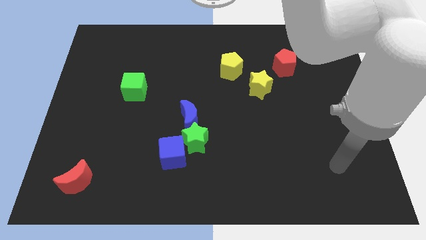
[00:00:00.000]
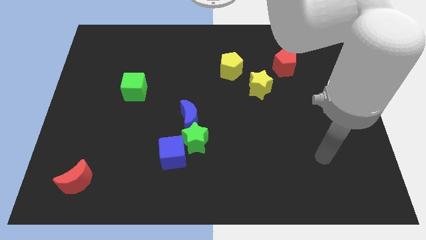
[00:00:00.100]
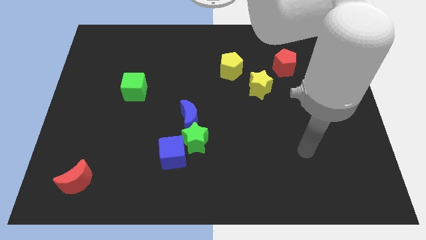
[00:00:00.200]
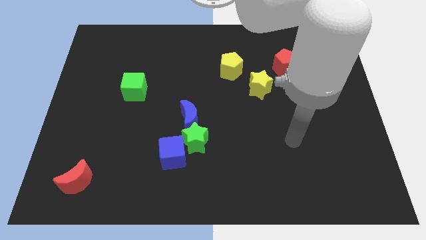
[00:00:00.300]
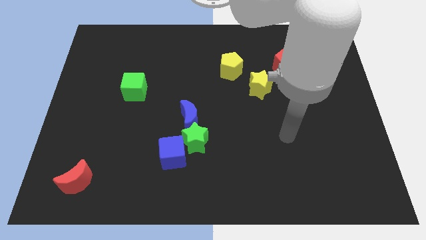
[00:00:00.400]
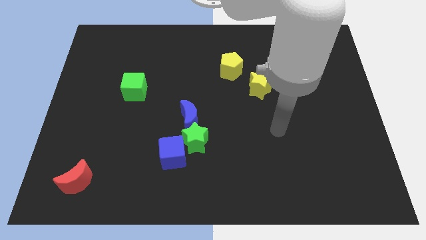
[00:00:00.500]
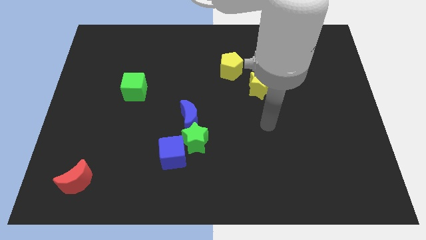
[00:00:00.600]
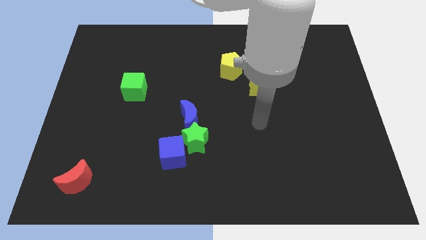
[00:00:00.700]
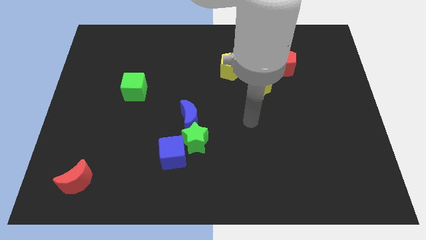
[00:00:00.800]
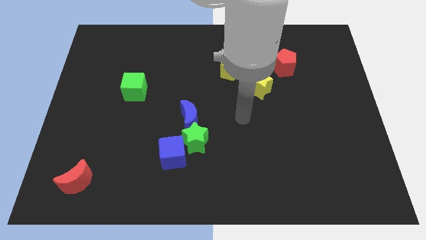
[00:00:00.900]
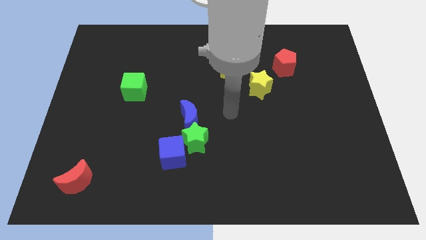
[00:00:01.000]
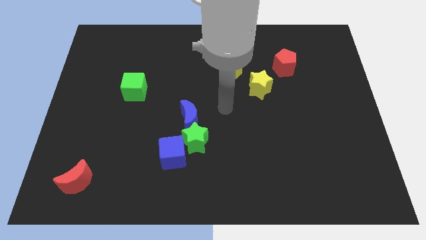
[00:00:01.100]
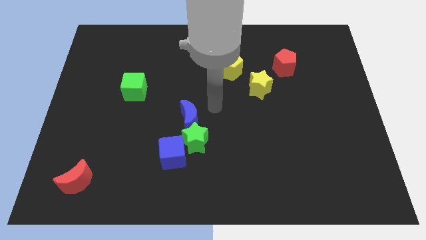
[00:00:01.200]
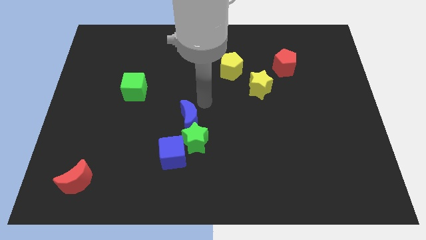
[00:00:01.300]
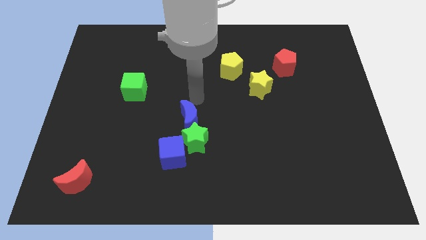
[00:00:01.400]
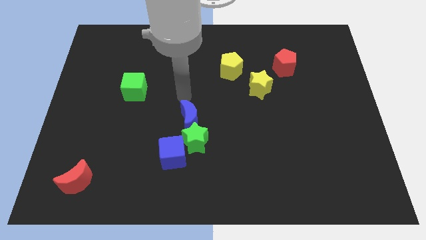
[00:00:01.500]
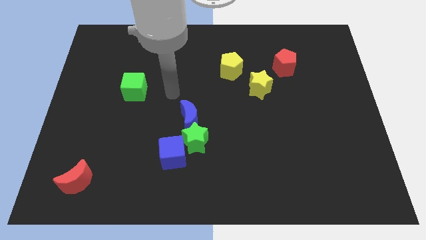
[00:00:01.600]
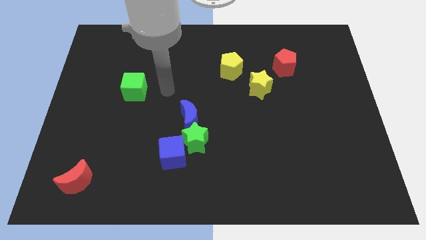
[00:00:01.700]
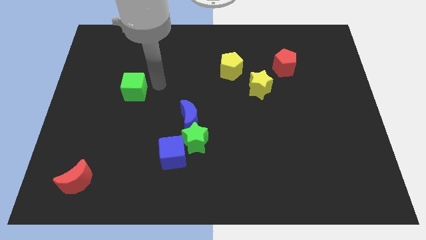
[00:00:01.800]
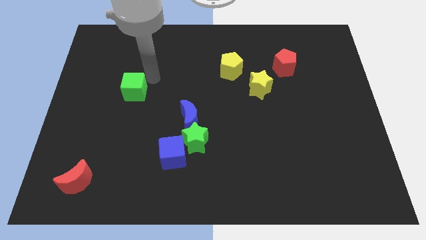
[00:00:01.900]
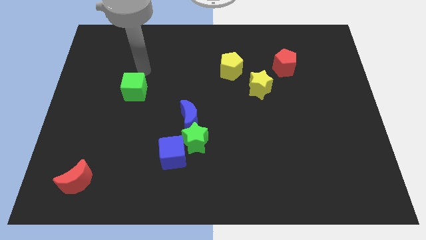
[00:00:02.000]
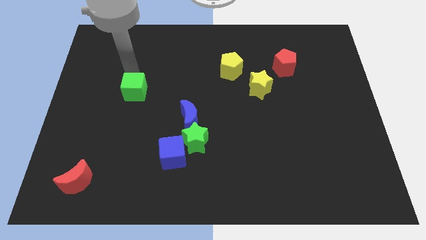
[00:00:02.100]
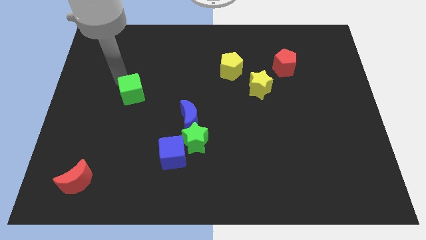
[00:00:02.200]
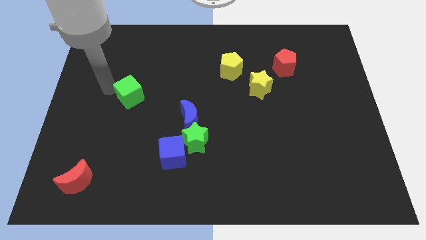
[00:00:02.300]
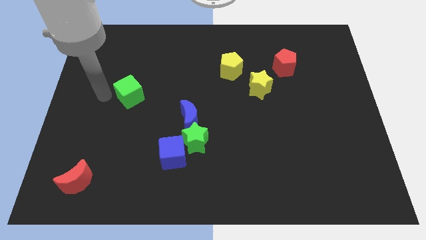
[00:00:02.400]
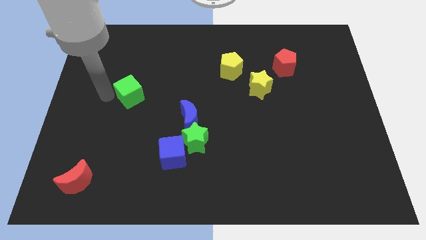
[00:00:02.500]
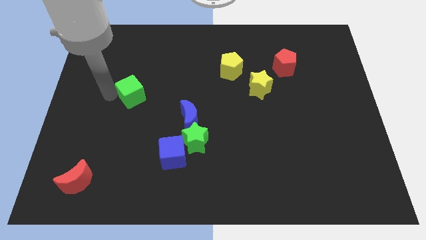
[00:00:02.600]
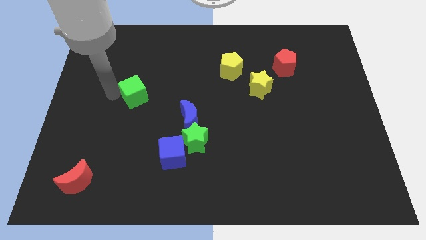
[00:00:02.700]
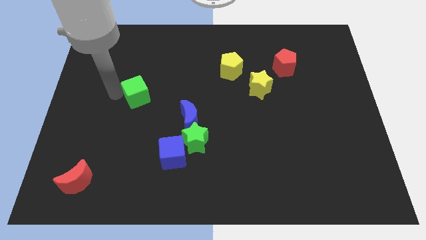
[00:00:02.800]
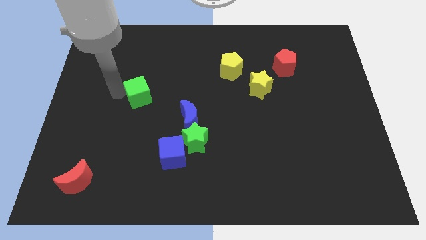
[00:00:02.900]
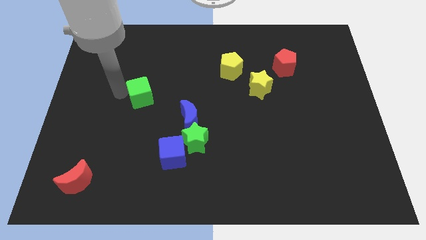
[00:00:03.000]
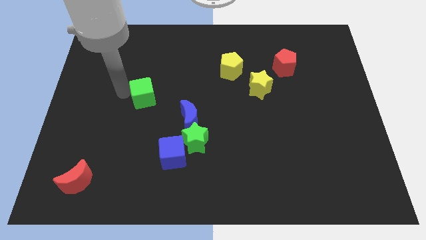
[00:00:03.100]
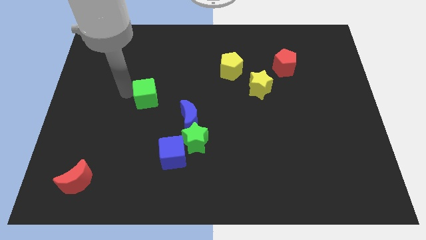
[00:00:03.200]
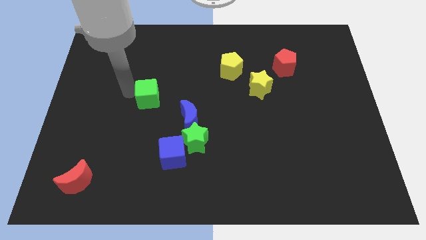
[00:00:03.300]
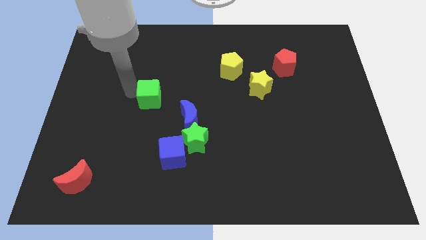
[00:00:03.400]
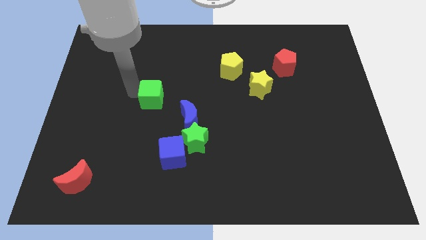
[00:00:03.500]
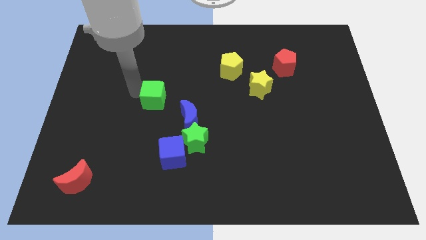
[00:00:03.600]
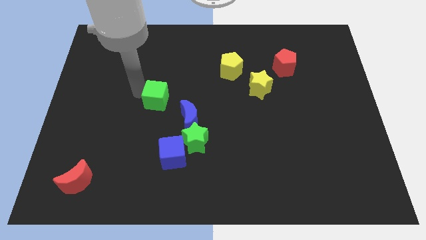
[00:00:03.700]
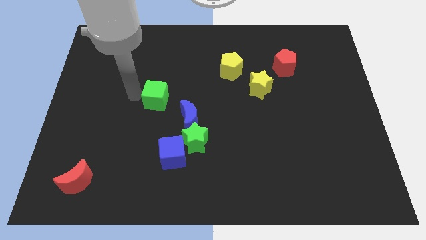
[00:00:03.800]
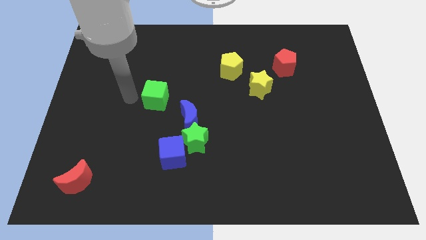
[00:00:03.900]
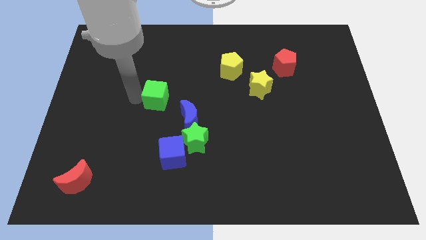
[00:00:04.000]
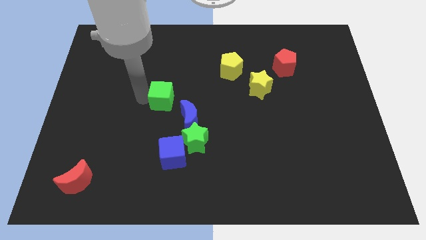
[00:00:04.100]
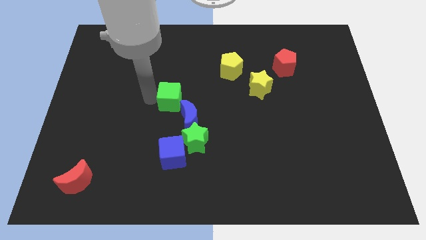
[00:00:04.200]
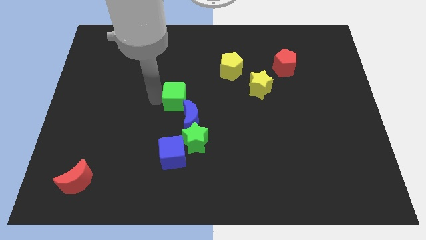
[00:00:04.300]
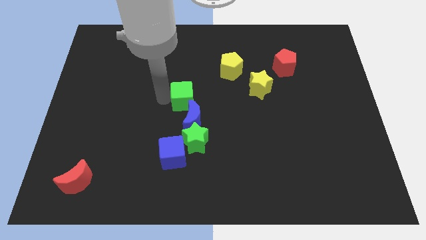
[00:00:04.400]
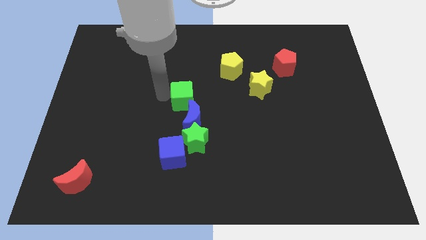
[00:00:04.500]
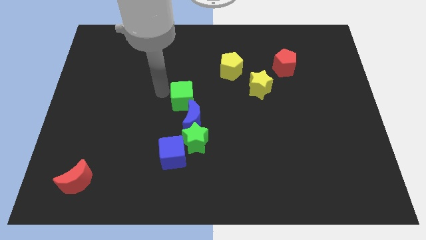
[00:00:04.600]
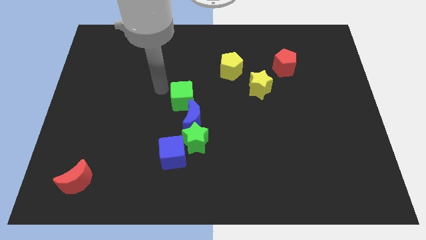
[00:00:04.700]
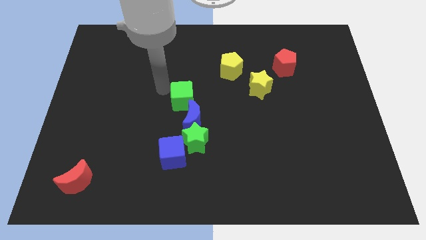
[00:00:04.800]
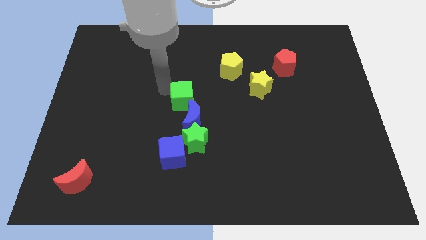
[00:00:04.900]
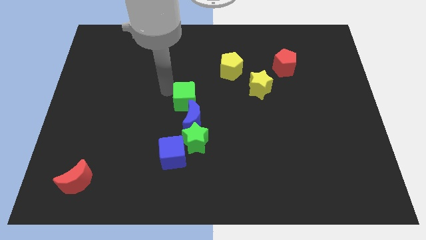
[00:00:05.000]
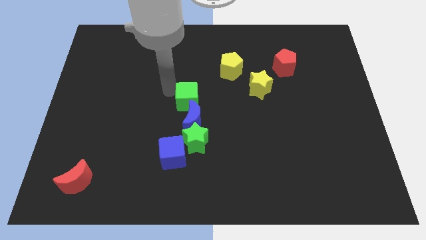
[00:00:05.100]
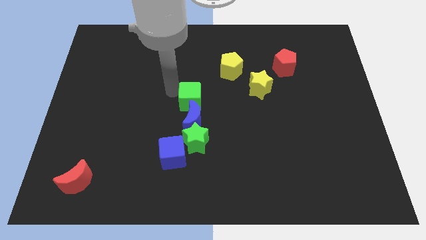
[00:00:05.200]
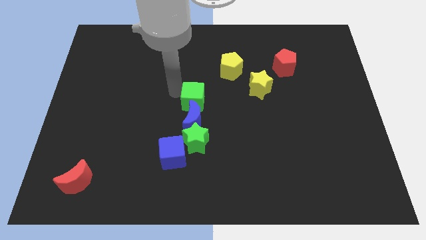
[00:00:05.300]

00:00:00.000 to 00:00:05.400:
put the green cube to the top right side of the blue moon

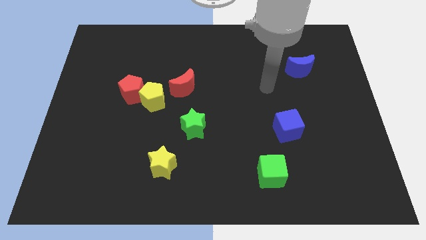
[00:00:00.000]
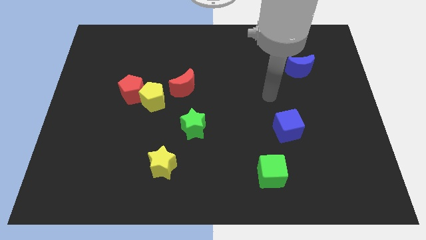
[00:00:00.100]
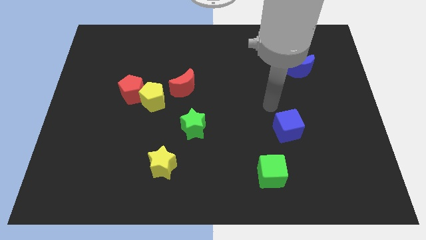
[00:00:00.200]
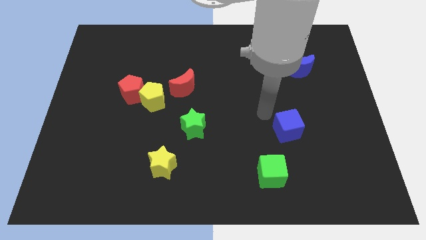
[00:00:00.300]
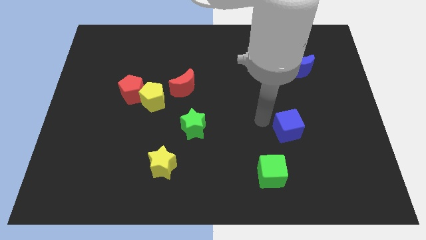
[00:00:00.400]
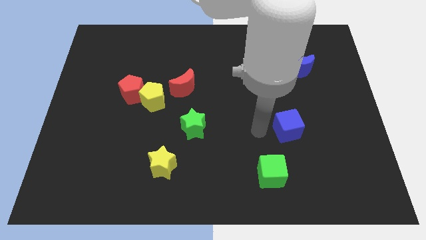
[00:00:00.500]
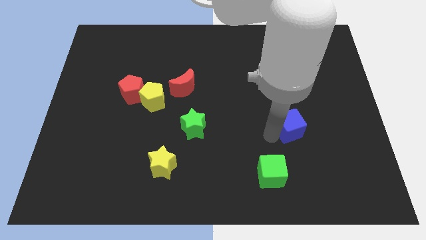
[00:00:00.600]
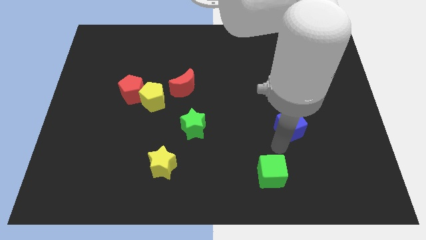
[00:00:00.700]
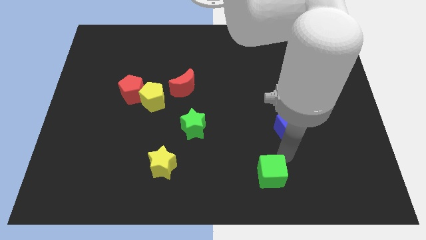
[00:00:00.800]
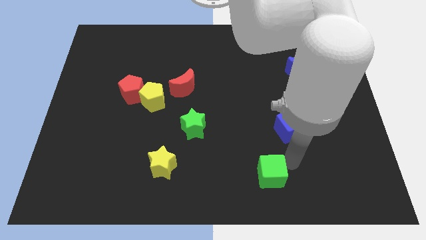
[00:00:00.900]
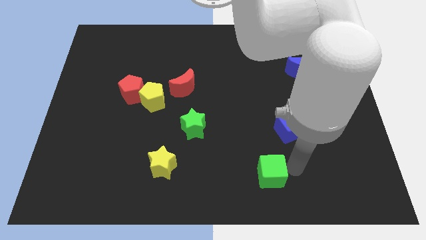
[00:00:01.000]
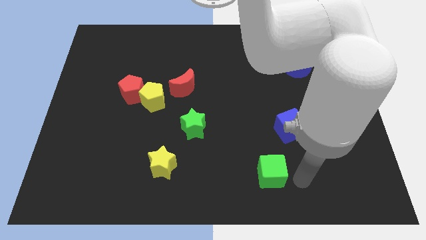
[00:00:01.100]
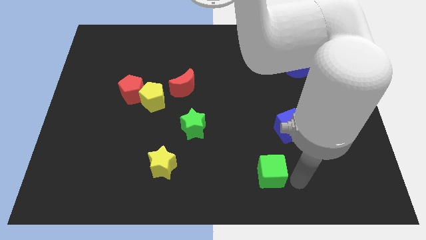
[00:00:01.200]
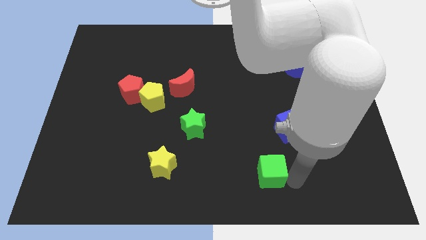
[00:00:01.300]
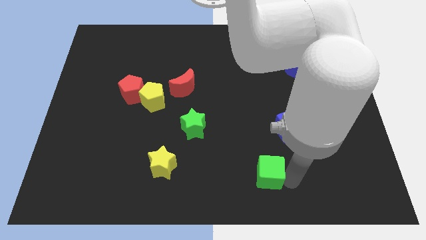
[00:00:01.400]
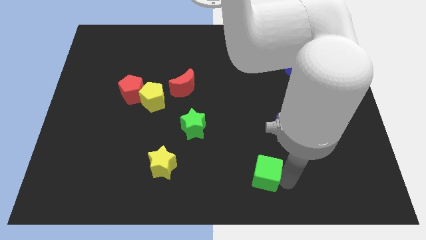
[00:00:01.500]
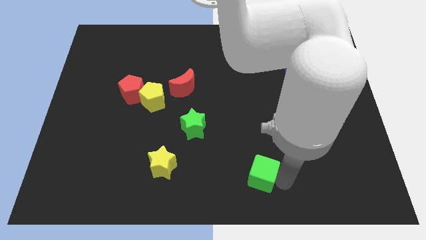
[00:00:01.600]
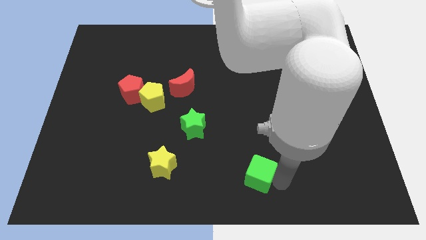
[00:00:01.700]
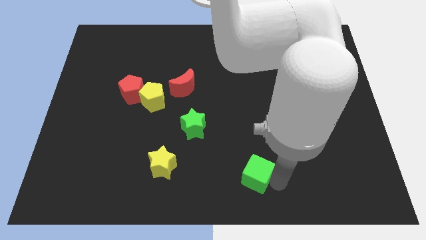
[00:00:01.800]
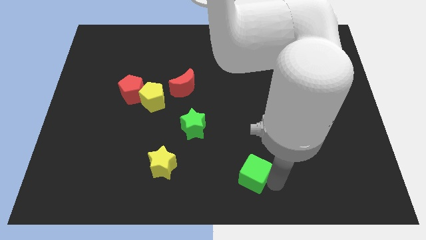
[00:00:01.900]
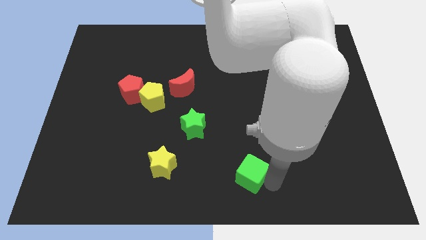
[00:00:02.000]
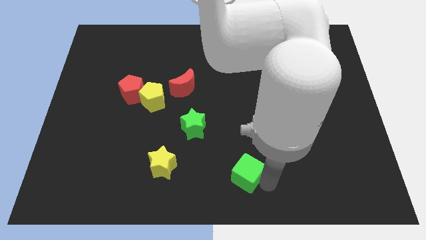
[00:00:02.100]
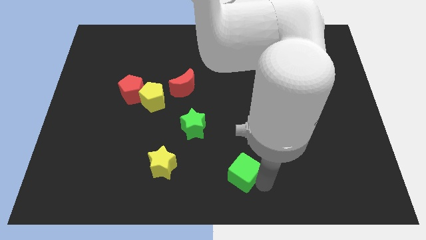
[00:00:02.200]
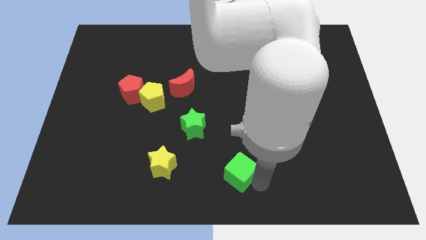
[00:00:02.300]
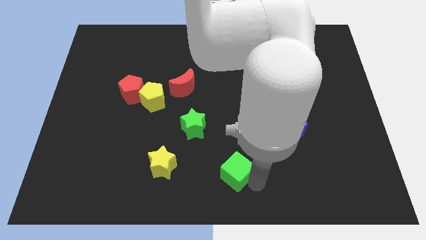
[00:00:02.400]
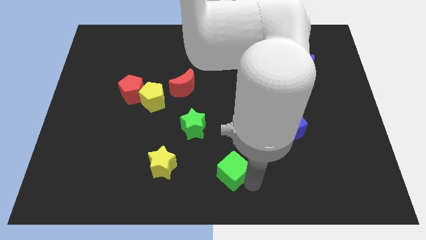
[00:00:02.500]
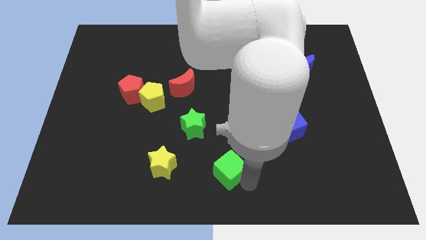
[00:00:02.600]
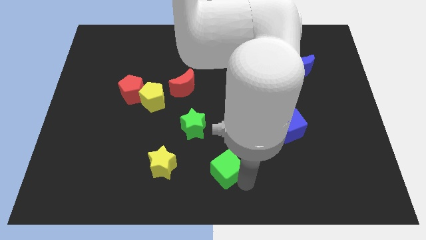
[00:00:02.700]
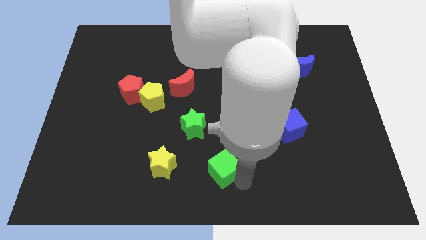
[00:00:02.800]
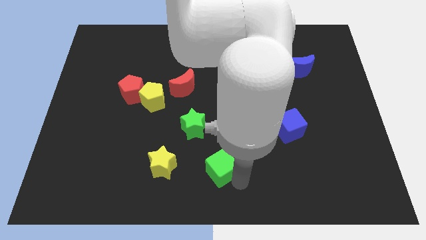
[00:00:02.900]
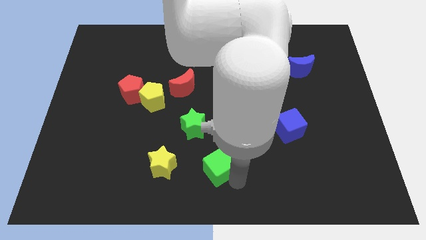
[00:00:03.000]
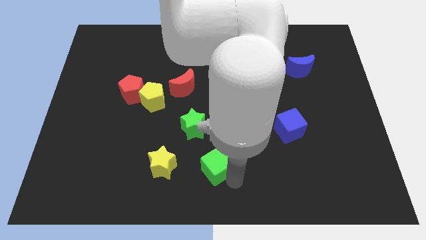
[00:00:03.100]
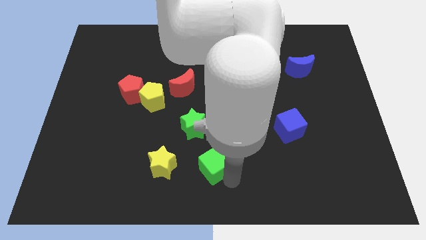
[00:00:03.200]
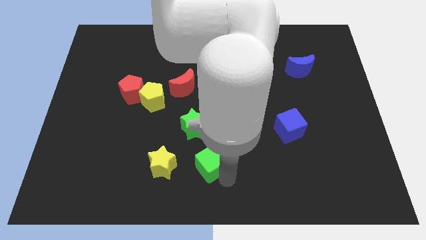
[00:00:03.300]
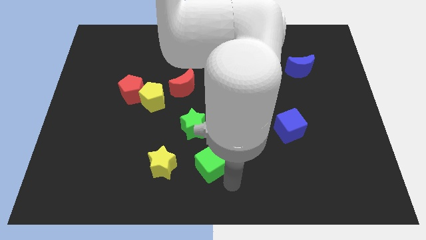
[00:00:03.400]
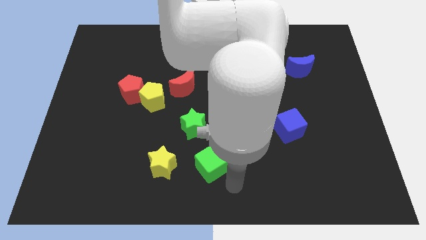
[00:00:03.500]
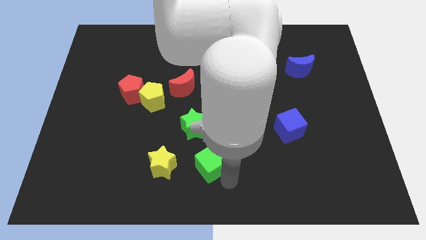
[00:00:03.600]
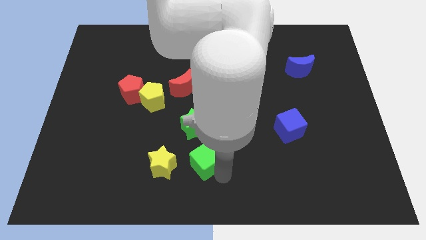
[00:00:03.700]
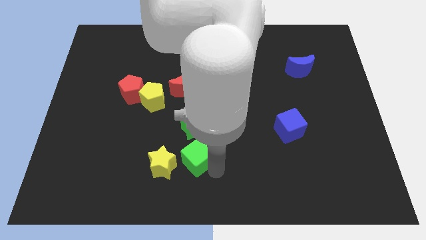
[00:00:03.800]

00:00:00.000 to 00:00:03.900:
put the green cube to the top right of the yellow star
